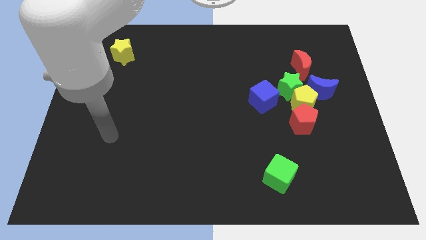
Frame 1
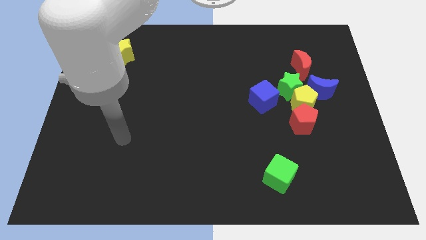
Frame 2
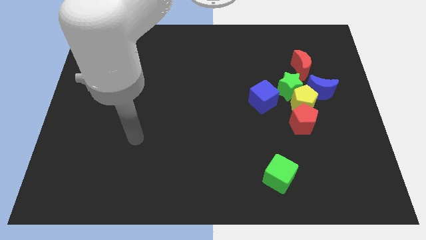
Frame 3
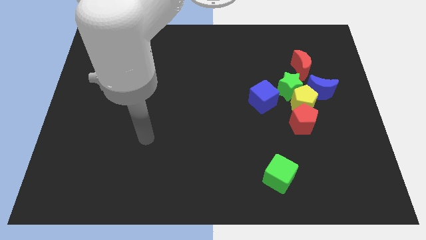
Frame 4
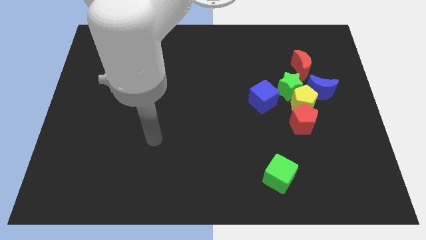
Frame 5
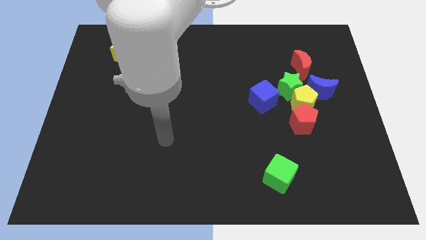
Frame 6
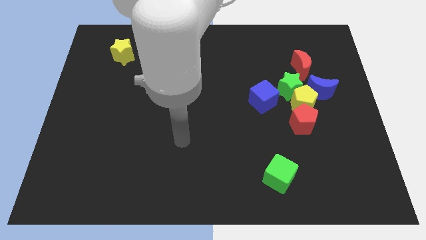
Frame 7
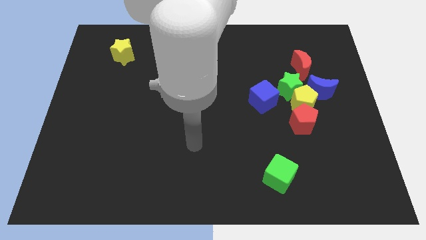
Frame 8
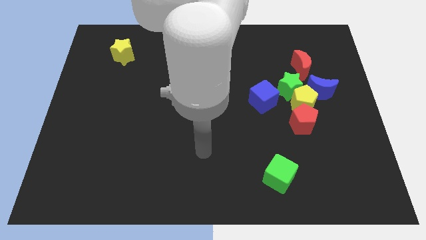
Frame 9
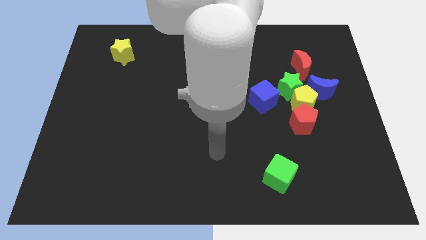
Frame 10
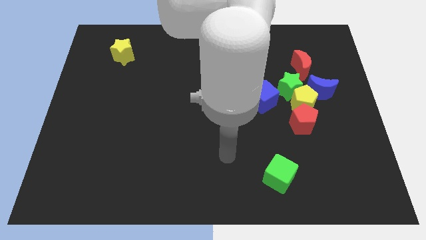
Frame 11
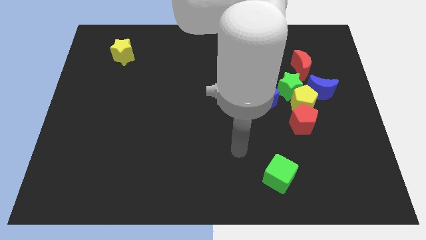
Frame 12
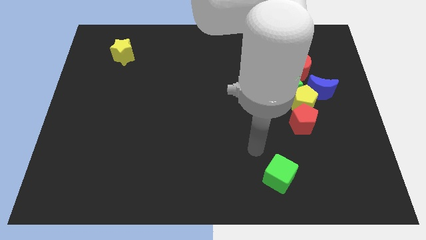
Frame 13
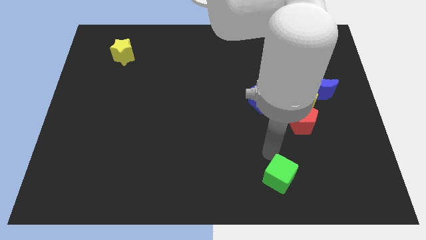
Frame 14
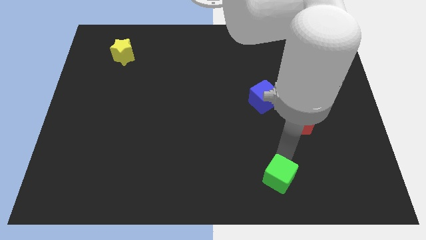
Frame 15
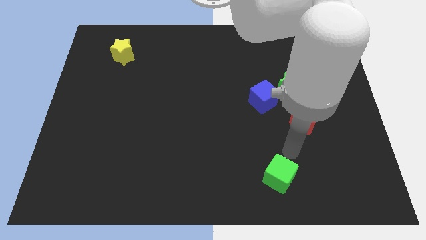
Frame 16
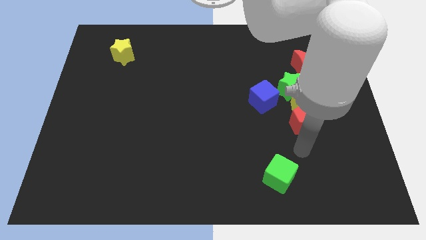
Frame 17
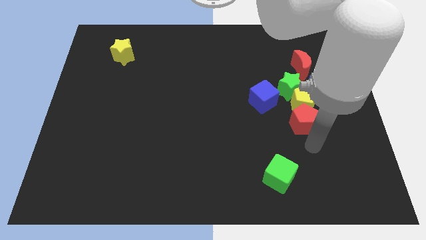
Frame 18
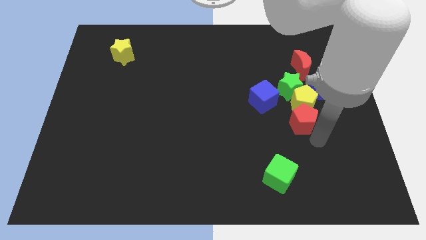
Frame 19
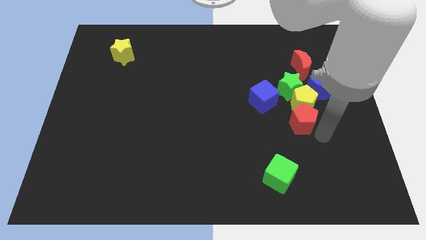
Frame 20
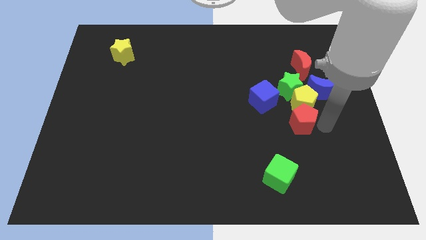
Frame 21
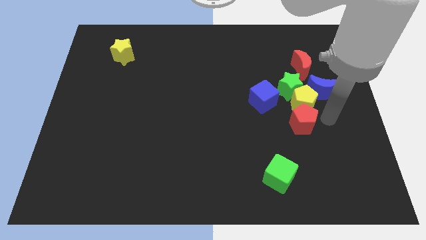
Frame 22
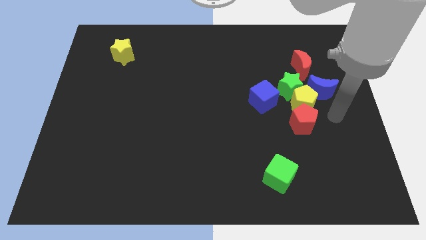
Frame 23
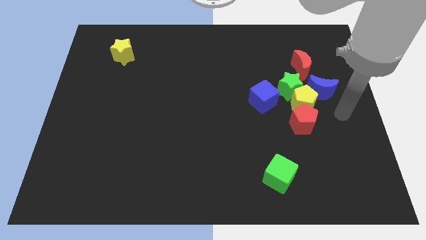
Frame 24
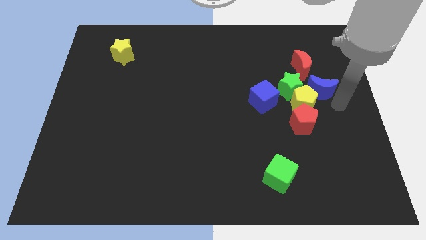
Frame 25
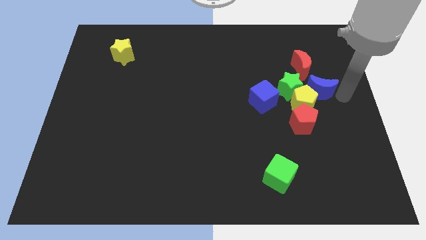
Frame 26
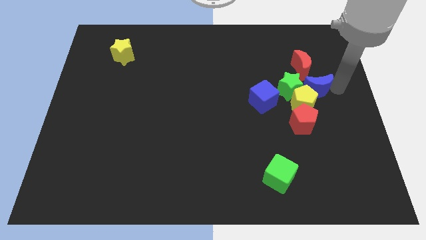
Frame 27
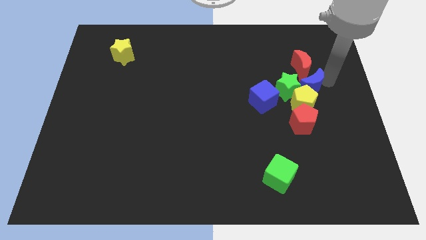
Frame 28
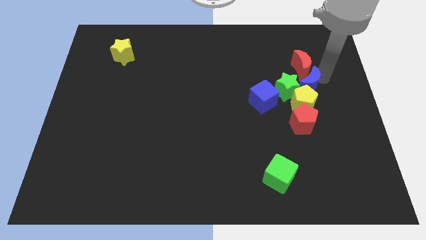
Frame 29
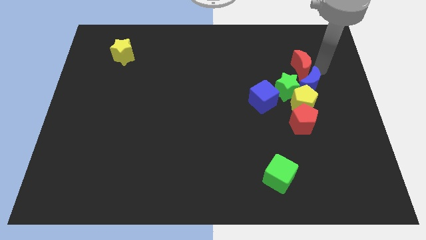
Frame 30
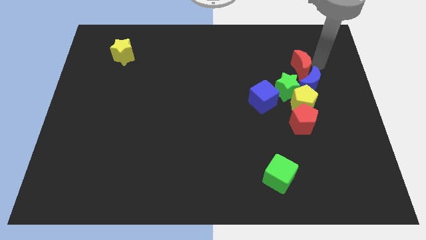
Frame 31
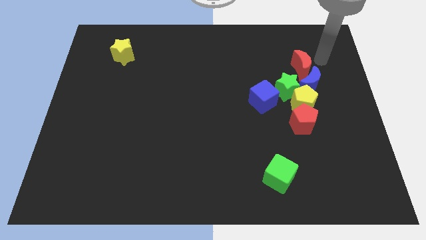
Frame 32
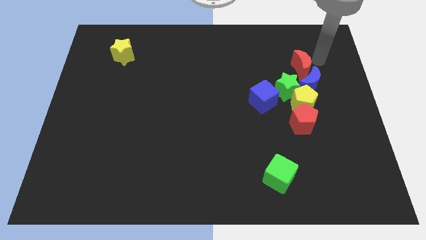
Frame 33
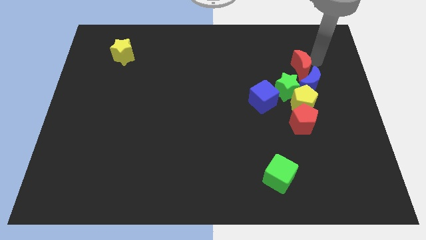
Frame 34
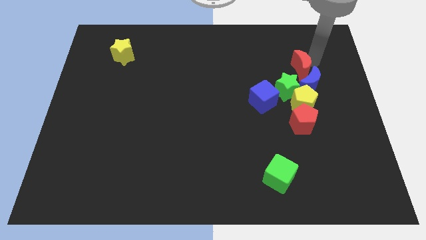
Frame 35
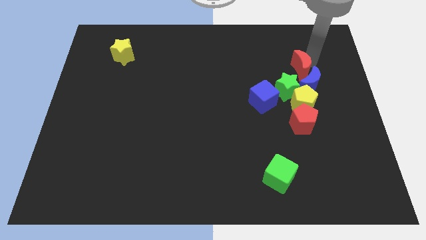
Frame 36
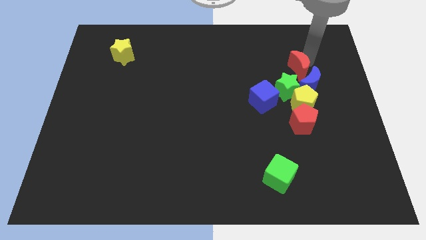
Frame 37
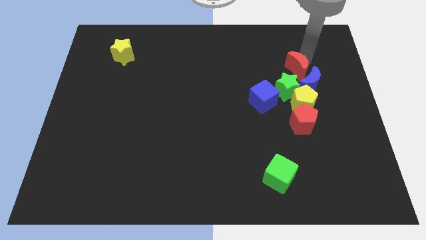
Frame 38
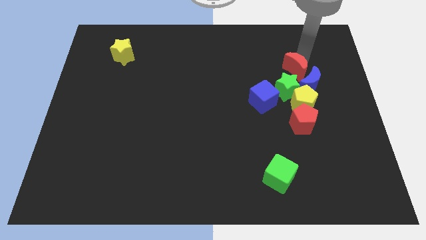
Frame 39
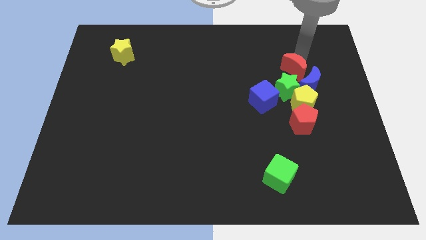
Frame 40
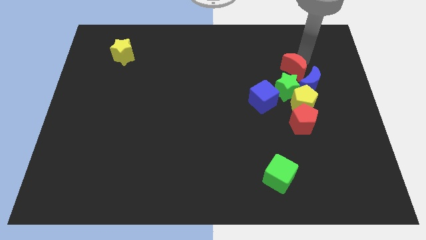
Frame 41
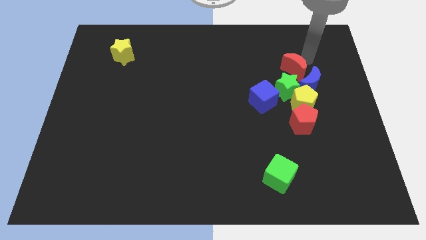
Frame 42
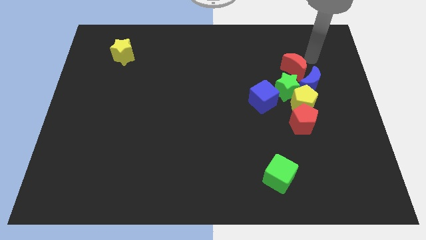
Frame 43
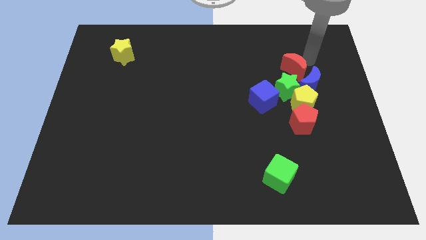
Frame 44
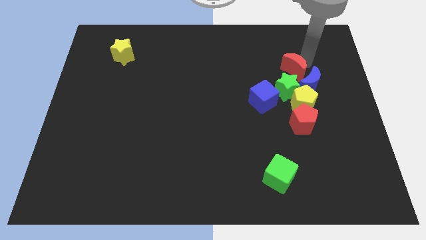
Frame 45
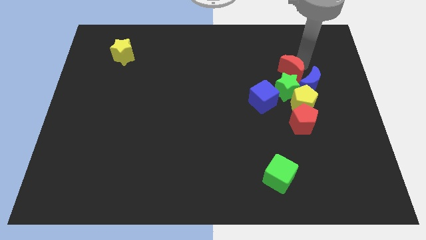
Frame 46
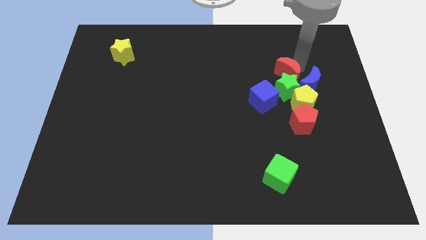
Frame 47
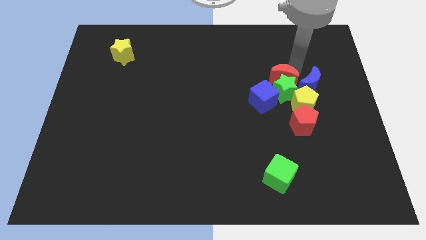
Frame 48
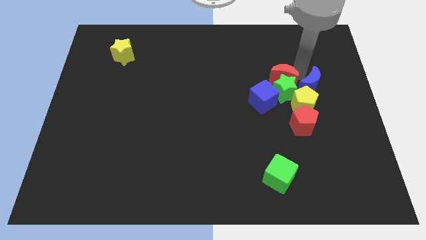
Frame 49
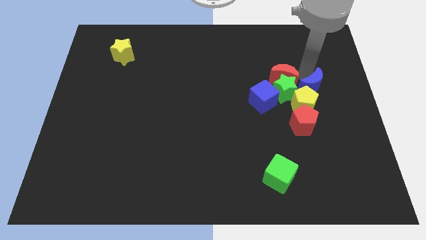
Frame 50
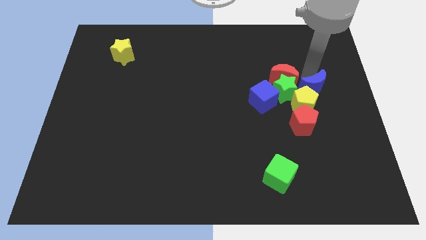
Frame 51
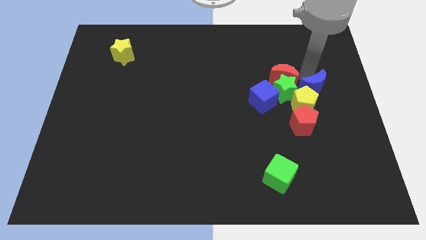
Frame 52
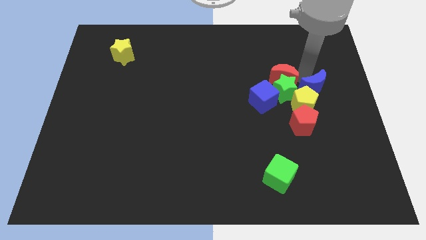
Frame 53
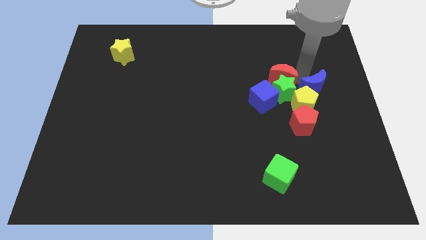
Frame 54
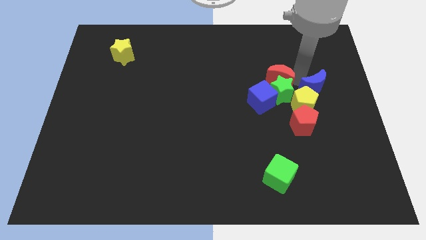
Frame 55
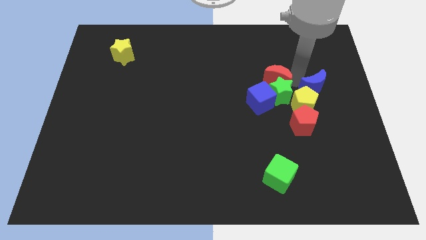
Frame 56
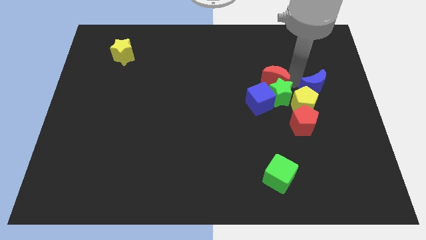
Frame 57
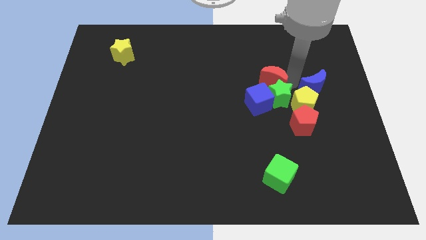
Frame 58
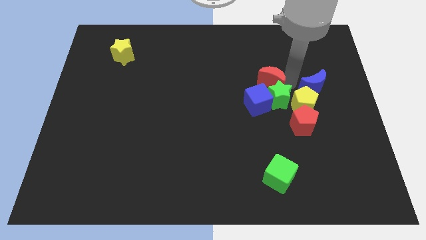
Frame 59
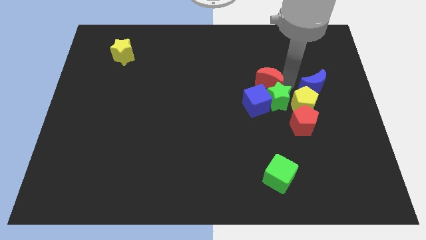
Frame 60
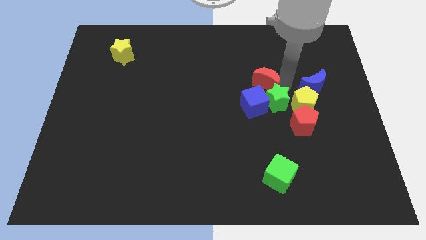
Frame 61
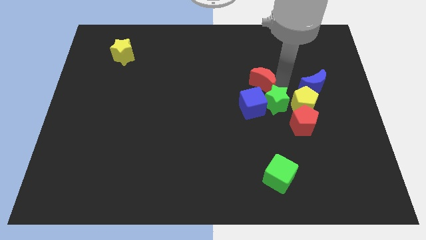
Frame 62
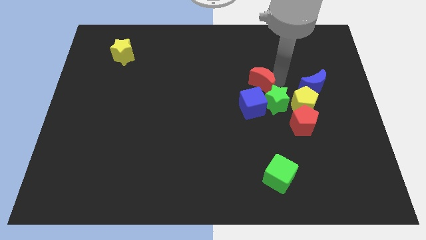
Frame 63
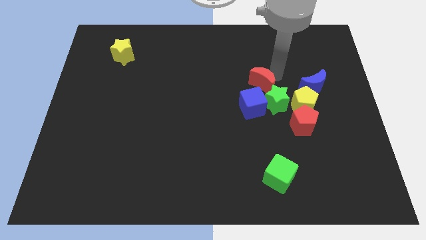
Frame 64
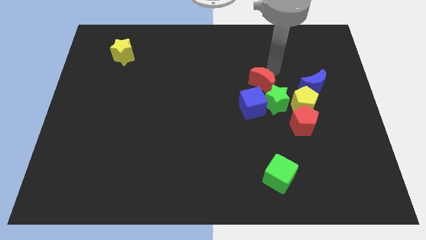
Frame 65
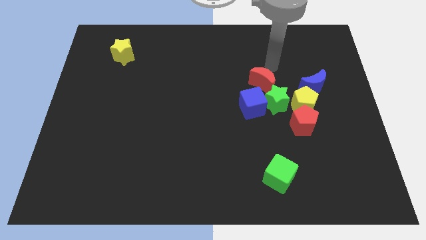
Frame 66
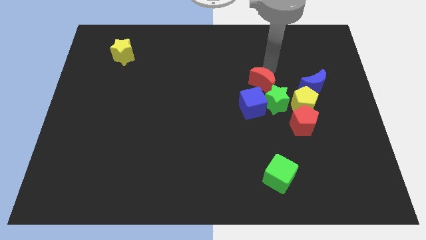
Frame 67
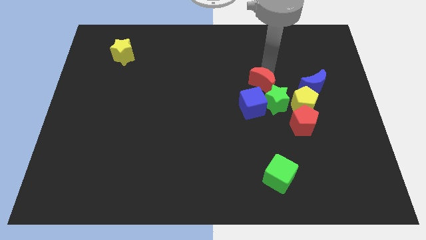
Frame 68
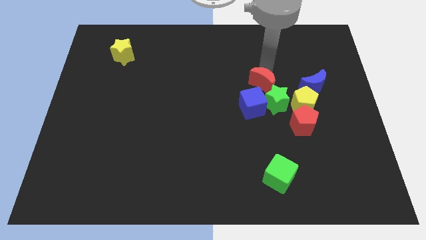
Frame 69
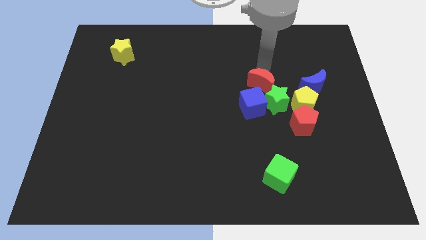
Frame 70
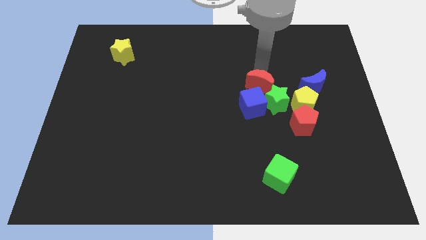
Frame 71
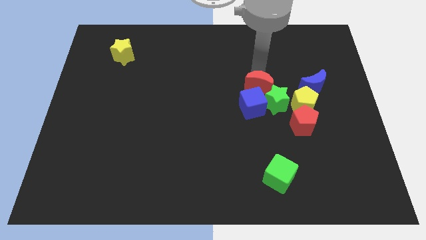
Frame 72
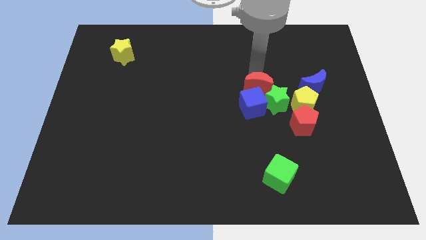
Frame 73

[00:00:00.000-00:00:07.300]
slide the red moon close to the blue cube
